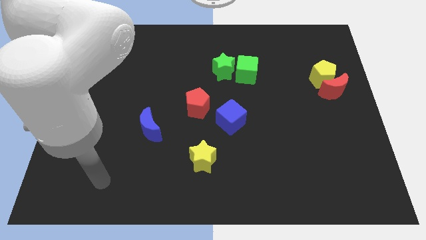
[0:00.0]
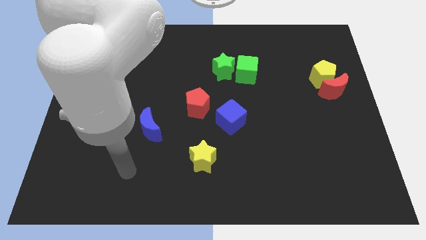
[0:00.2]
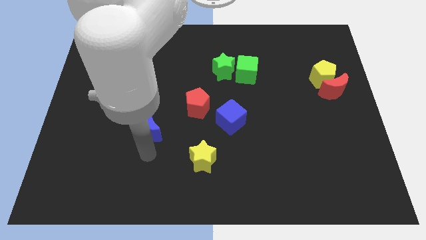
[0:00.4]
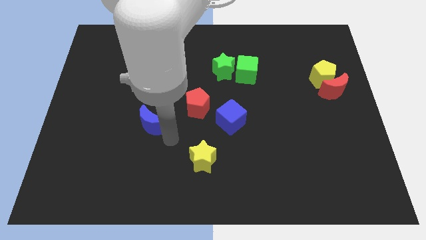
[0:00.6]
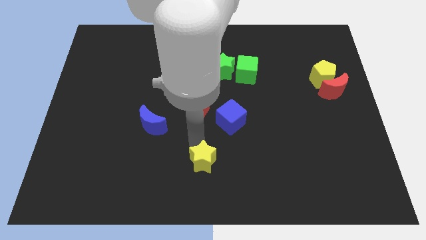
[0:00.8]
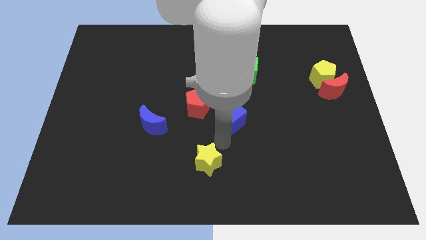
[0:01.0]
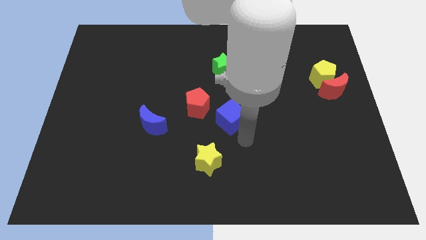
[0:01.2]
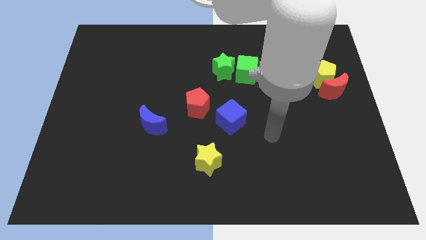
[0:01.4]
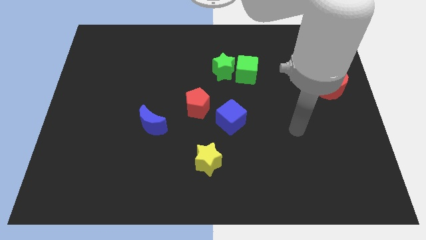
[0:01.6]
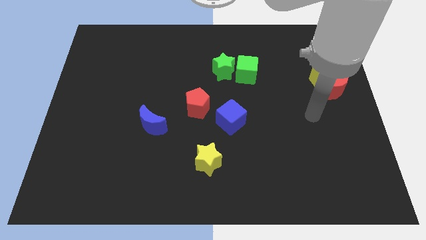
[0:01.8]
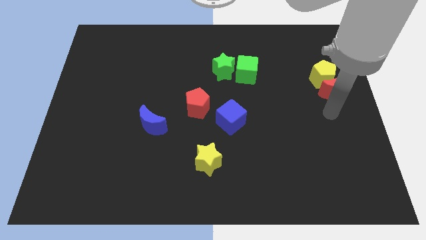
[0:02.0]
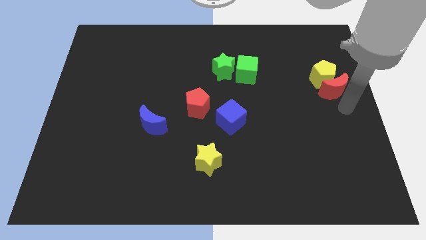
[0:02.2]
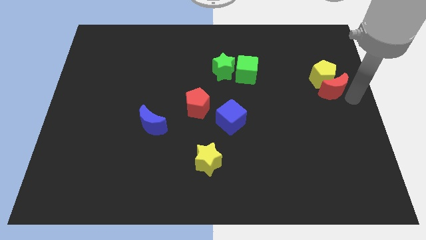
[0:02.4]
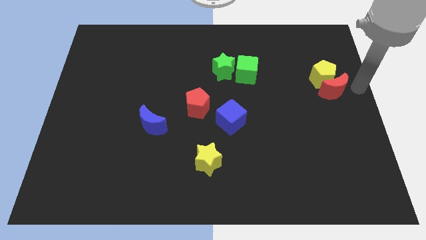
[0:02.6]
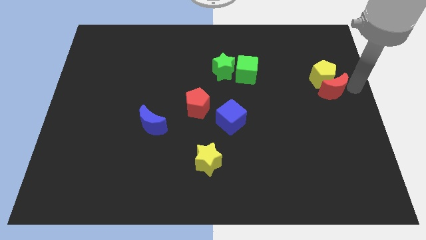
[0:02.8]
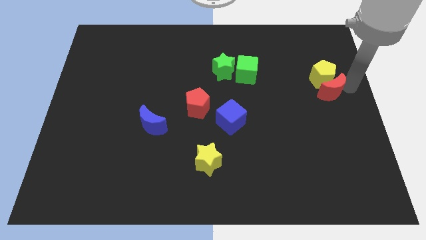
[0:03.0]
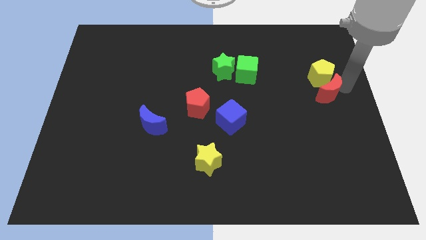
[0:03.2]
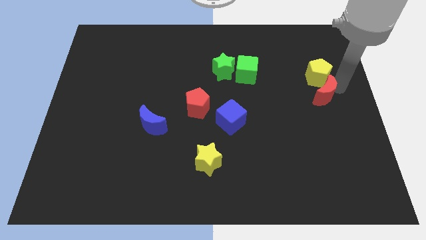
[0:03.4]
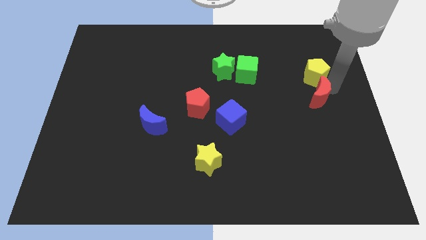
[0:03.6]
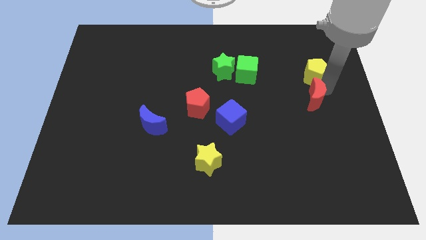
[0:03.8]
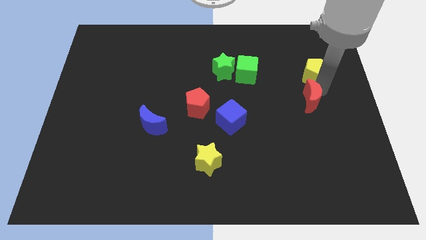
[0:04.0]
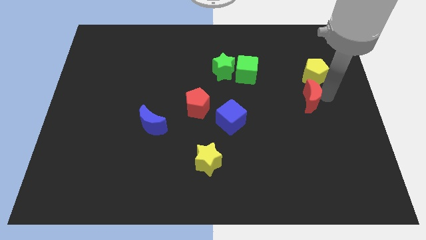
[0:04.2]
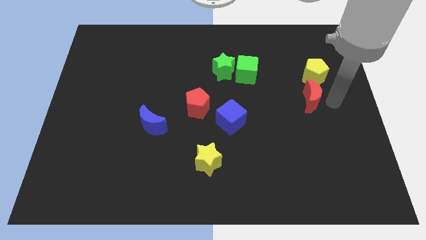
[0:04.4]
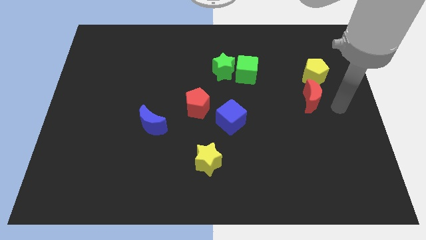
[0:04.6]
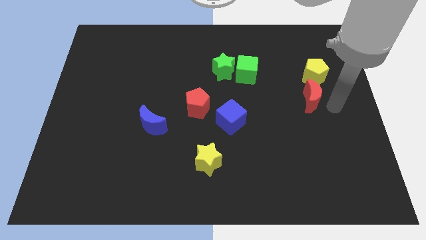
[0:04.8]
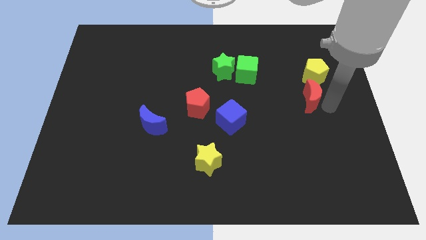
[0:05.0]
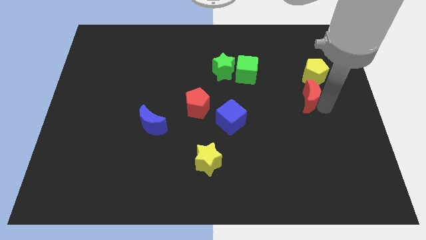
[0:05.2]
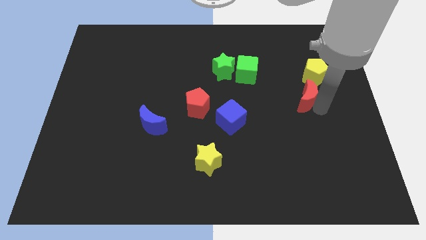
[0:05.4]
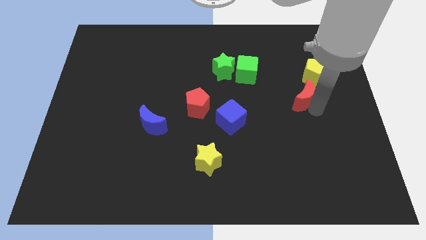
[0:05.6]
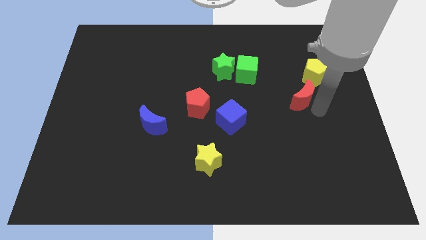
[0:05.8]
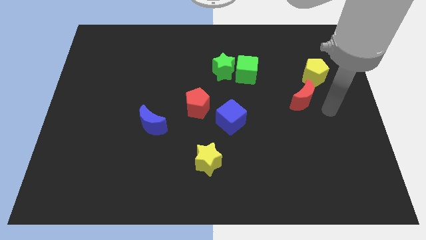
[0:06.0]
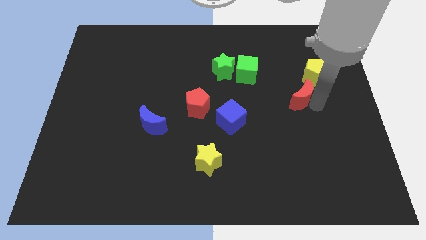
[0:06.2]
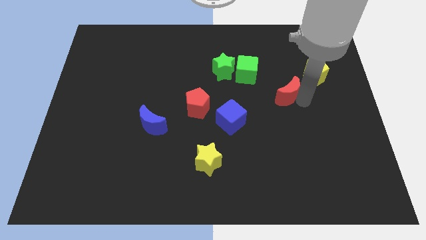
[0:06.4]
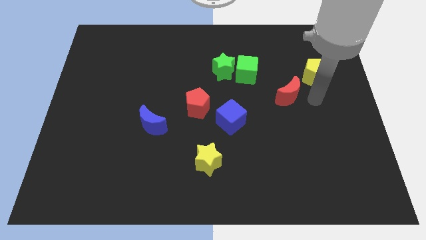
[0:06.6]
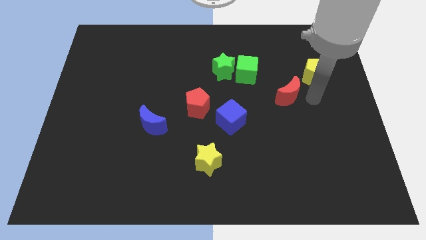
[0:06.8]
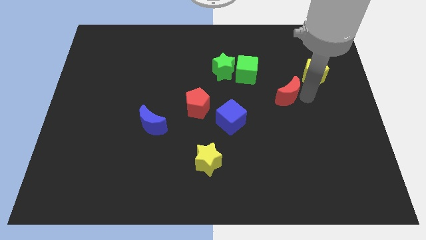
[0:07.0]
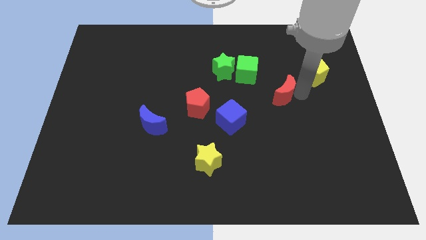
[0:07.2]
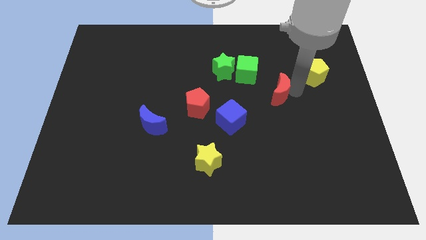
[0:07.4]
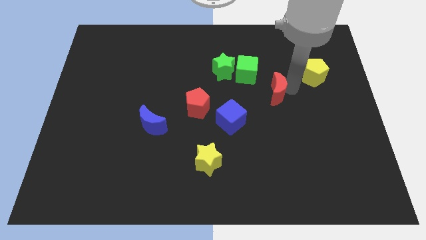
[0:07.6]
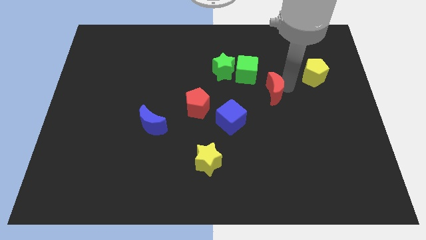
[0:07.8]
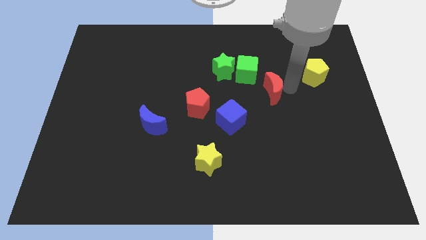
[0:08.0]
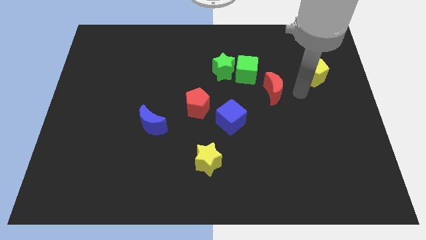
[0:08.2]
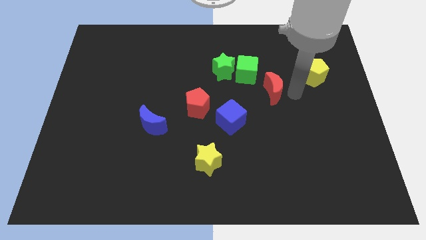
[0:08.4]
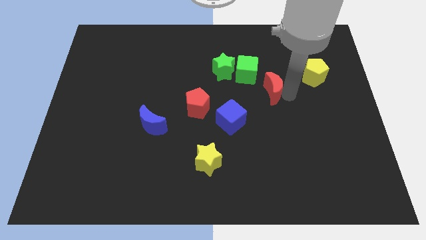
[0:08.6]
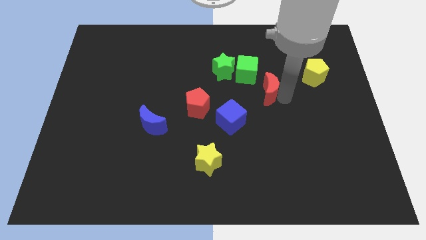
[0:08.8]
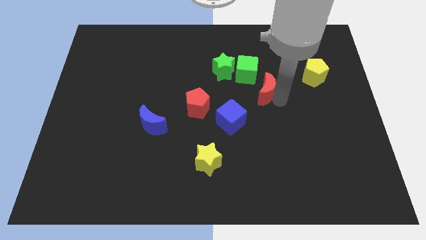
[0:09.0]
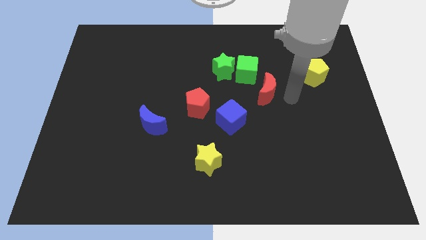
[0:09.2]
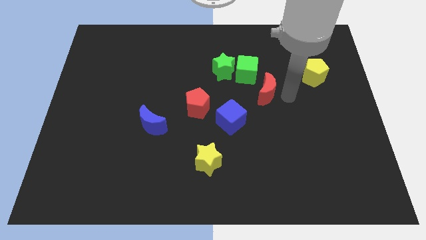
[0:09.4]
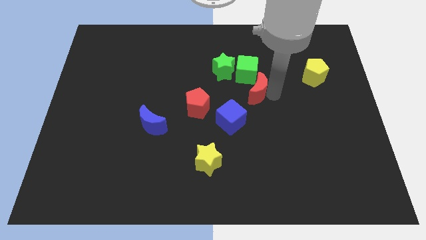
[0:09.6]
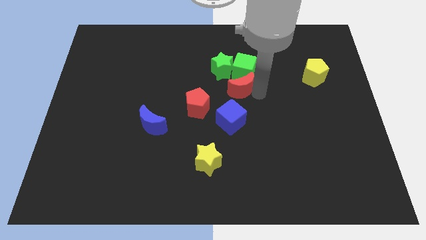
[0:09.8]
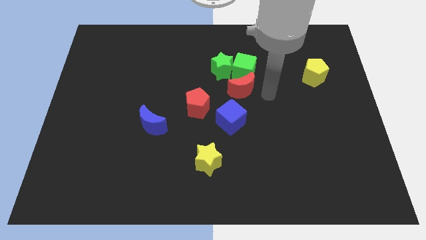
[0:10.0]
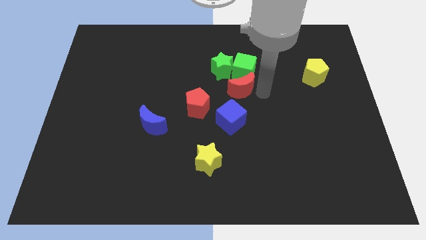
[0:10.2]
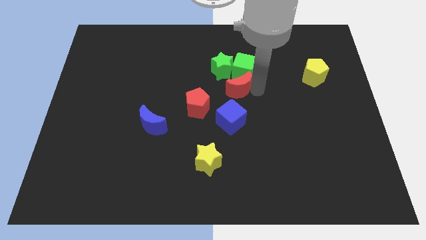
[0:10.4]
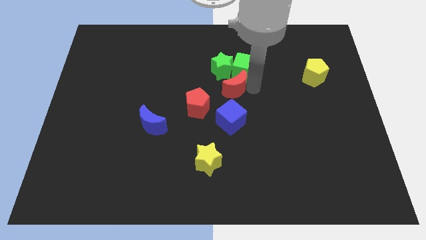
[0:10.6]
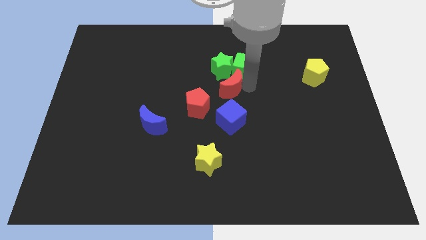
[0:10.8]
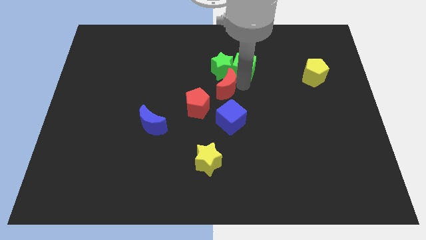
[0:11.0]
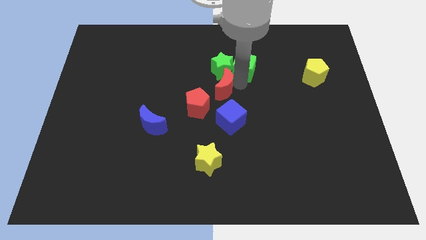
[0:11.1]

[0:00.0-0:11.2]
put the red moon to the bottom left of the green star

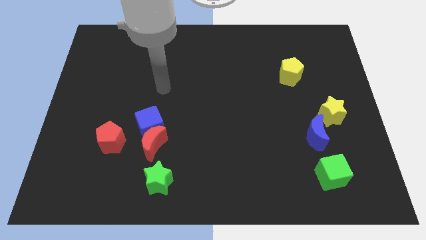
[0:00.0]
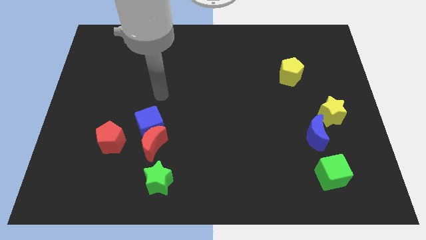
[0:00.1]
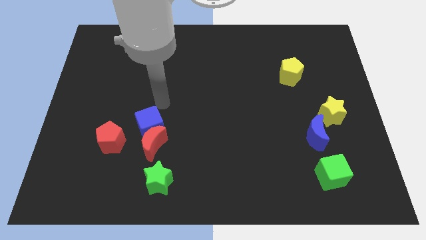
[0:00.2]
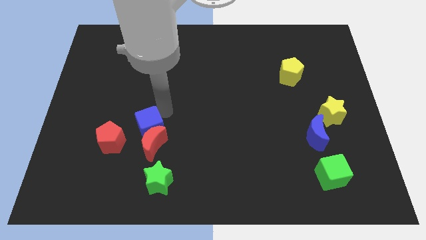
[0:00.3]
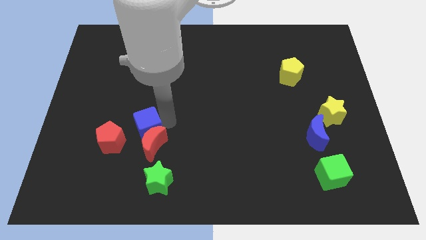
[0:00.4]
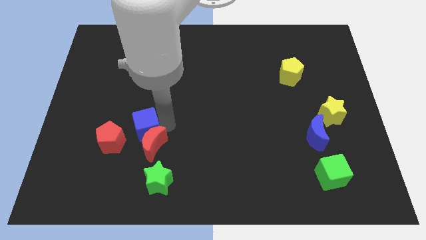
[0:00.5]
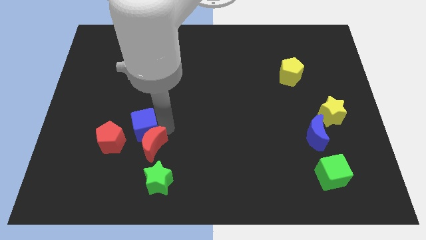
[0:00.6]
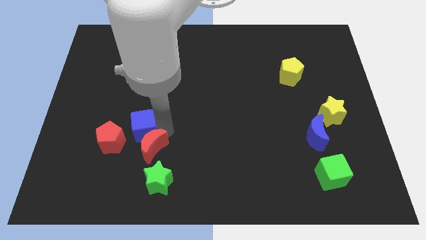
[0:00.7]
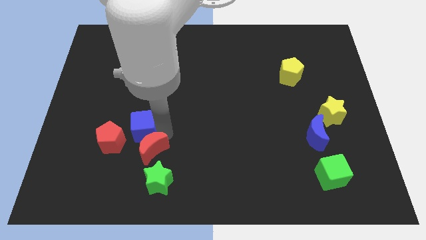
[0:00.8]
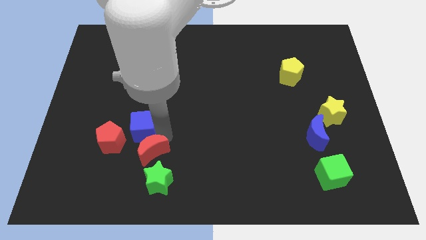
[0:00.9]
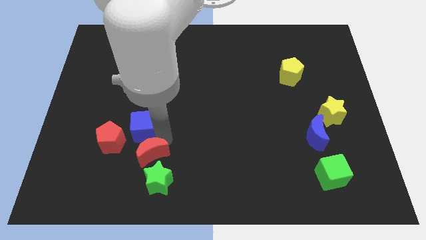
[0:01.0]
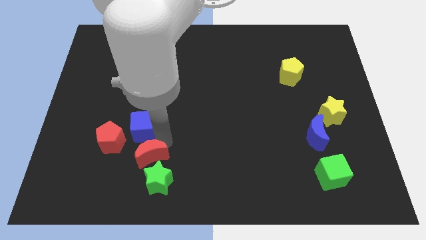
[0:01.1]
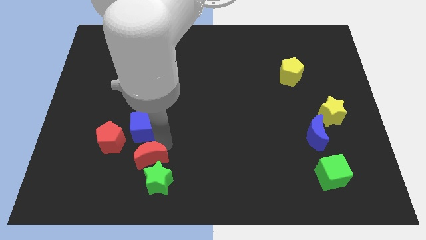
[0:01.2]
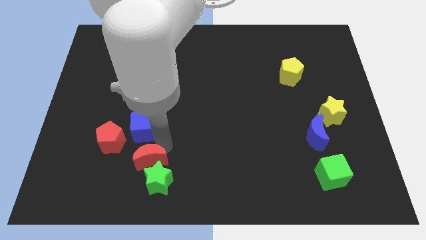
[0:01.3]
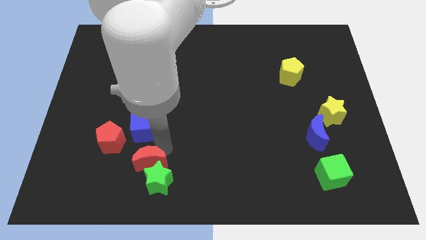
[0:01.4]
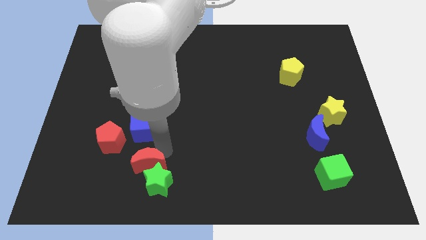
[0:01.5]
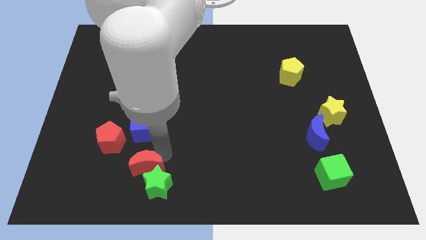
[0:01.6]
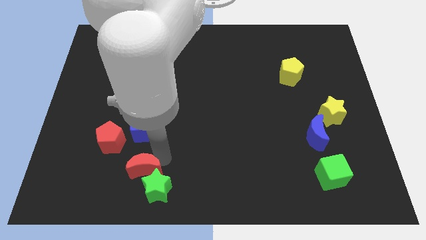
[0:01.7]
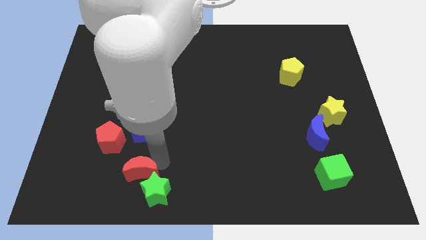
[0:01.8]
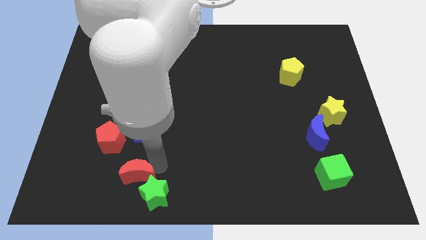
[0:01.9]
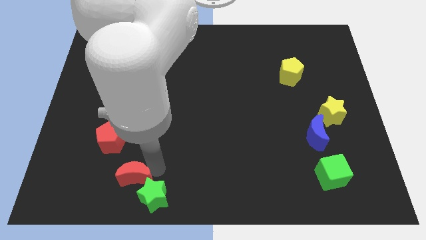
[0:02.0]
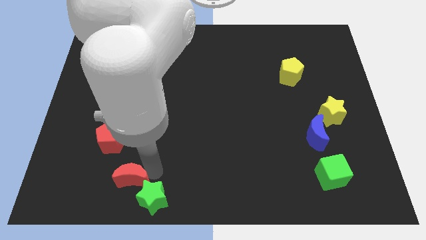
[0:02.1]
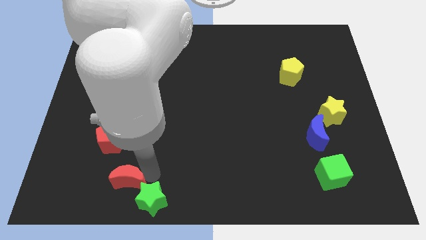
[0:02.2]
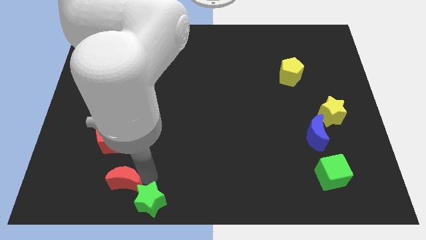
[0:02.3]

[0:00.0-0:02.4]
move the red moon to the bottom side of the red pentagon

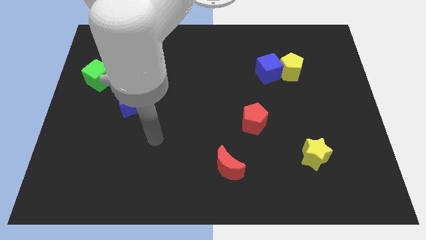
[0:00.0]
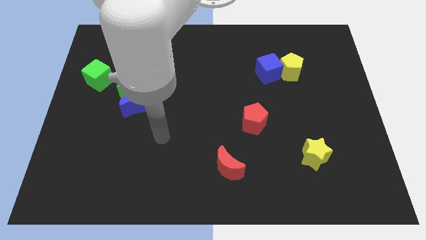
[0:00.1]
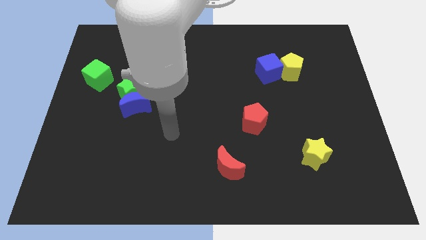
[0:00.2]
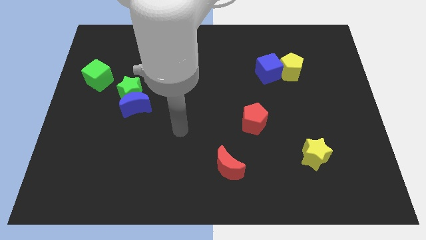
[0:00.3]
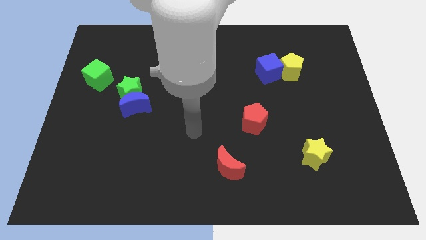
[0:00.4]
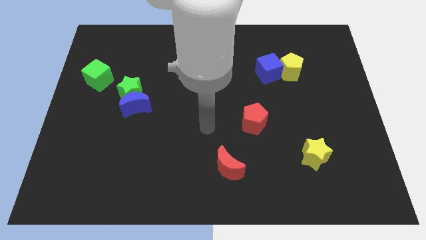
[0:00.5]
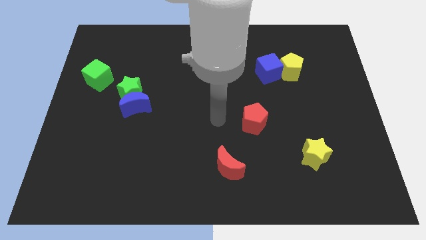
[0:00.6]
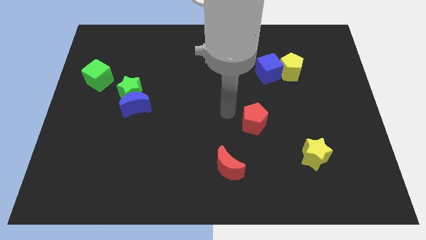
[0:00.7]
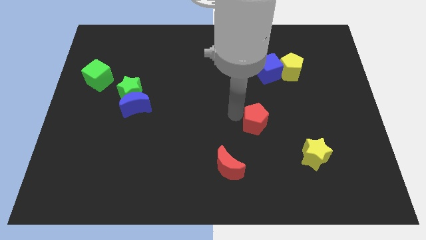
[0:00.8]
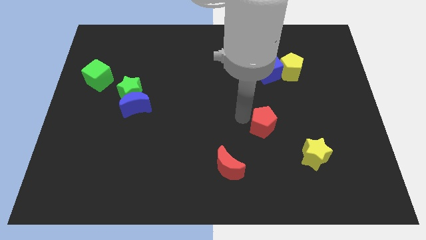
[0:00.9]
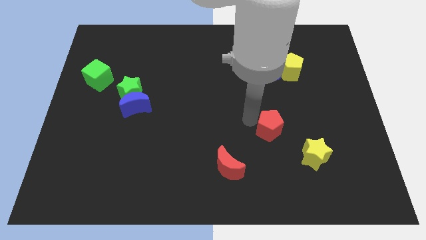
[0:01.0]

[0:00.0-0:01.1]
push the red pentagon to the top left side of the yellow star
